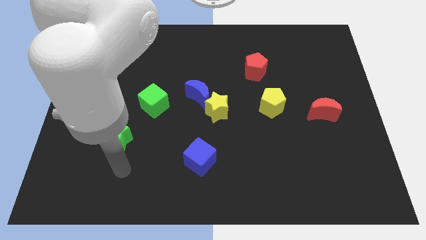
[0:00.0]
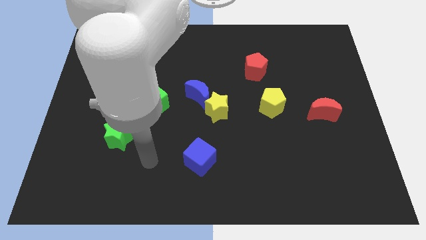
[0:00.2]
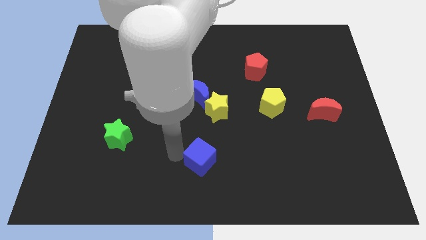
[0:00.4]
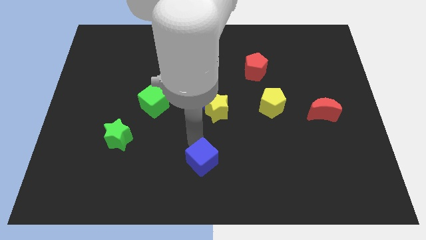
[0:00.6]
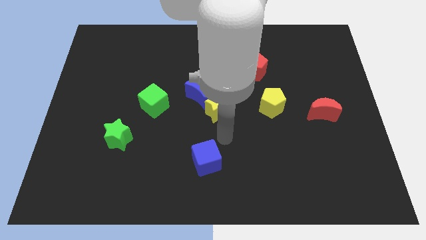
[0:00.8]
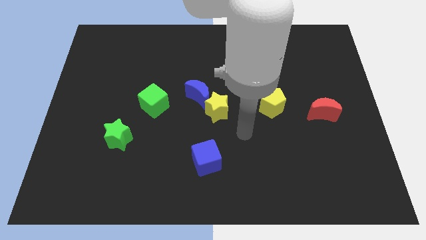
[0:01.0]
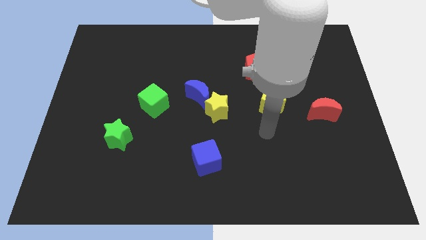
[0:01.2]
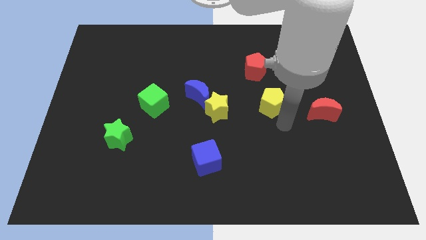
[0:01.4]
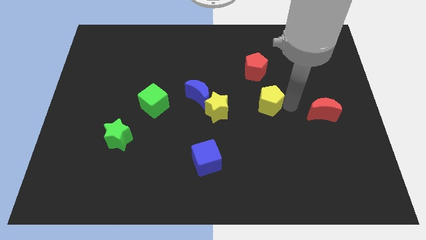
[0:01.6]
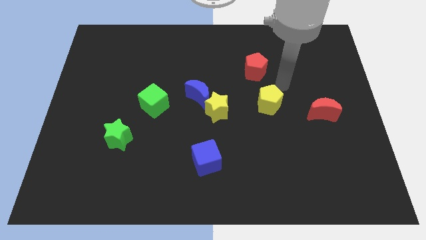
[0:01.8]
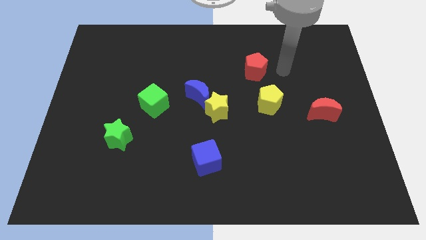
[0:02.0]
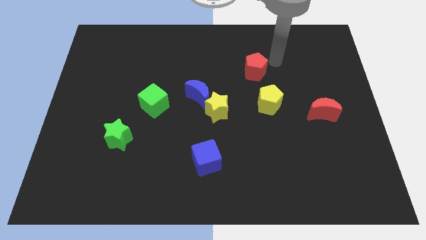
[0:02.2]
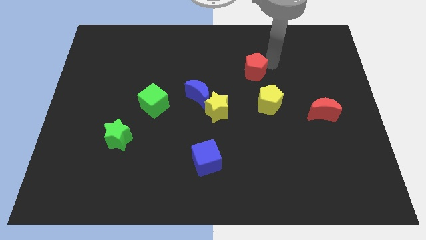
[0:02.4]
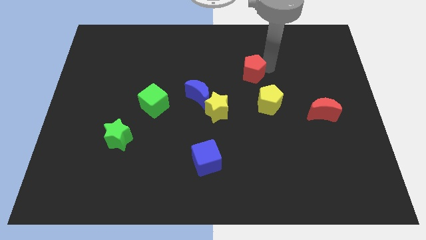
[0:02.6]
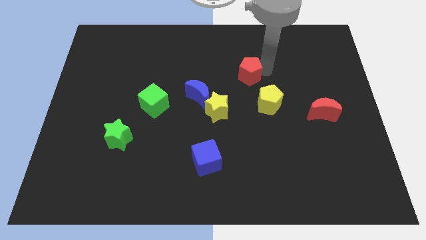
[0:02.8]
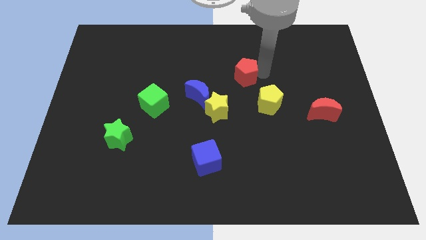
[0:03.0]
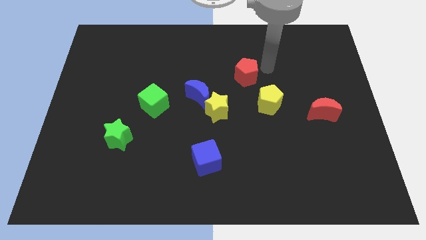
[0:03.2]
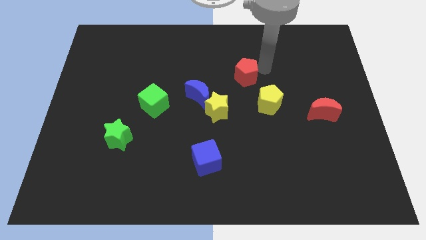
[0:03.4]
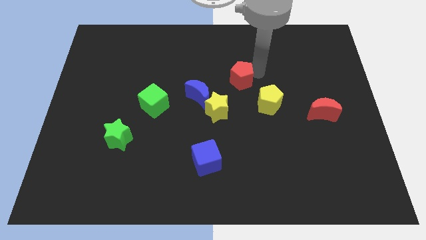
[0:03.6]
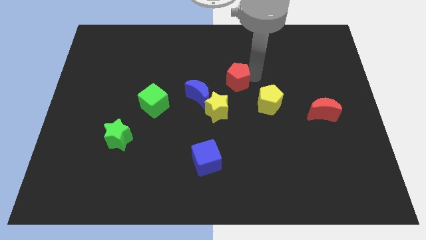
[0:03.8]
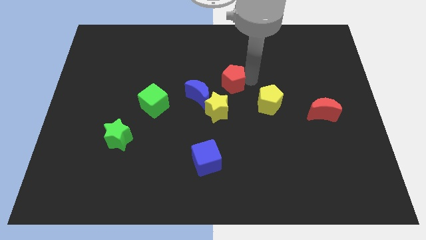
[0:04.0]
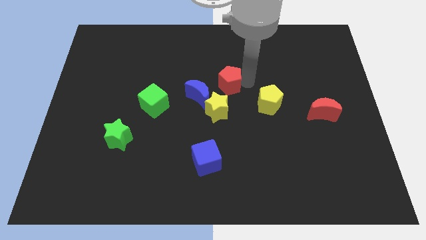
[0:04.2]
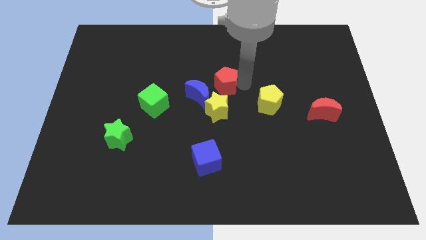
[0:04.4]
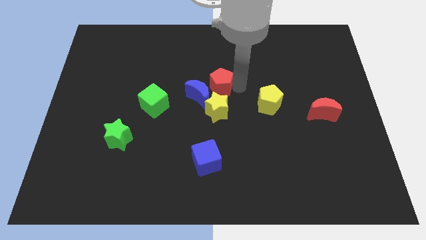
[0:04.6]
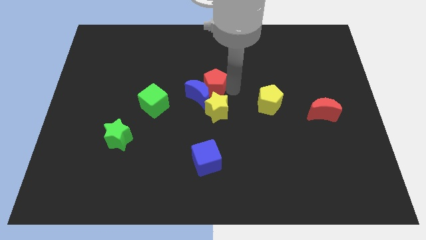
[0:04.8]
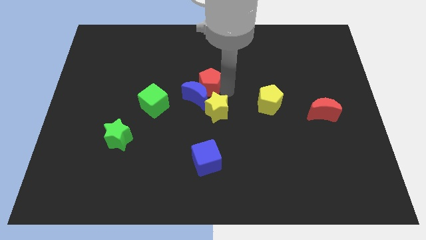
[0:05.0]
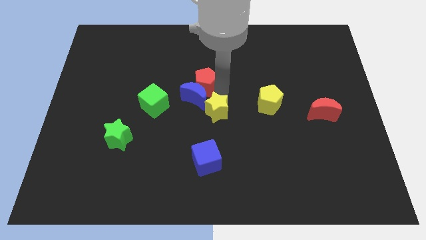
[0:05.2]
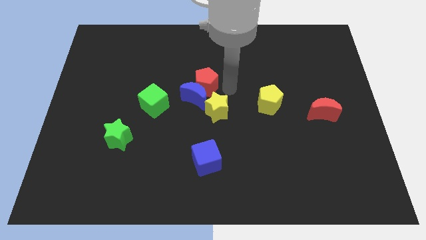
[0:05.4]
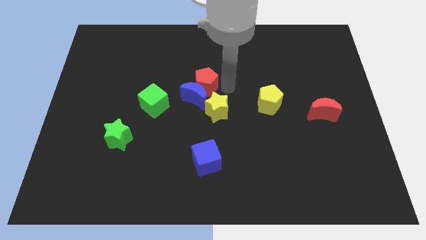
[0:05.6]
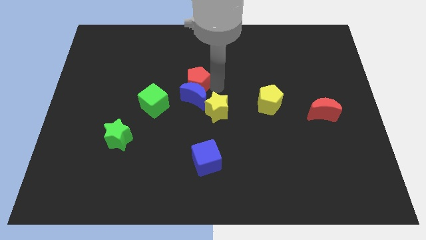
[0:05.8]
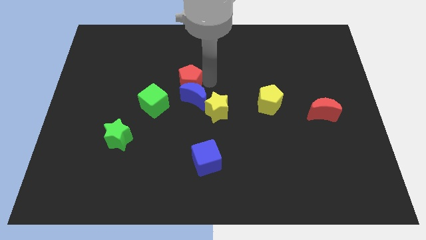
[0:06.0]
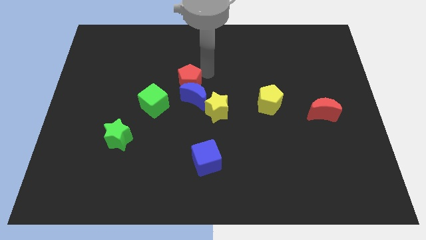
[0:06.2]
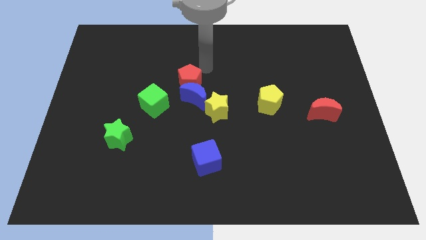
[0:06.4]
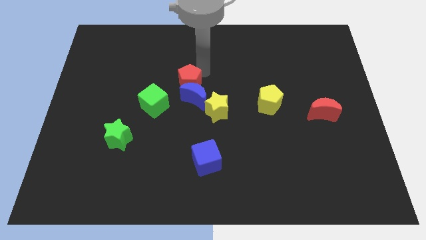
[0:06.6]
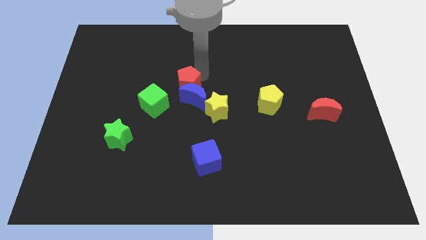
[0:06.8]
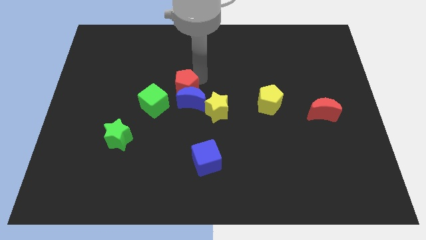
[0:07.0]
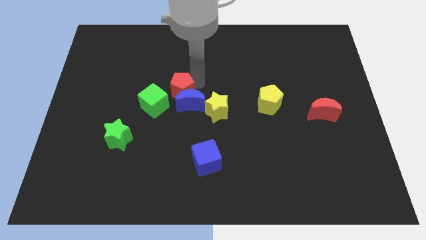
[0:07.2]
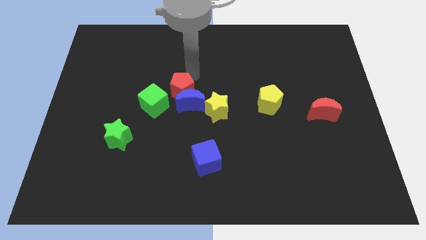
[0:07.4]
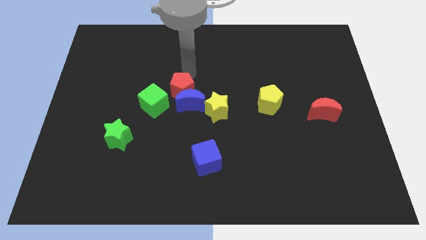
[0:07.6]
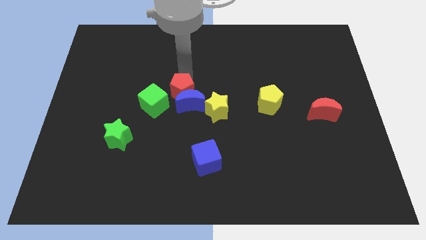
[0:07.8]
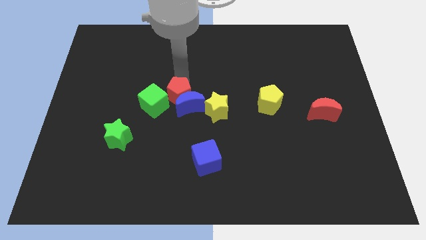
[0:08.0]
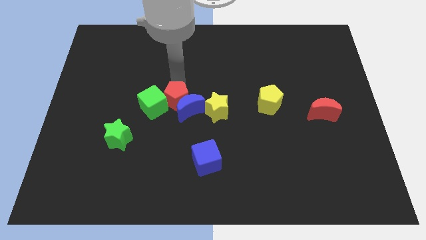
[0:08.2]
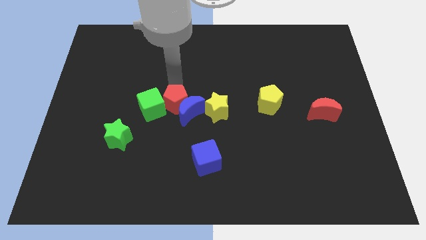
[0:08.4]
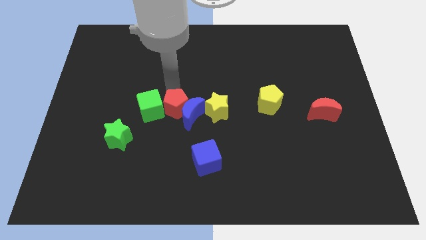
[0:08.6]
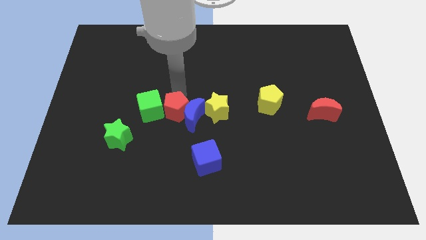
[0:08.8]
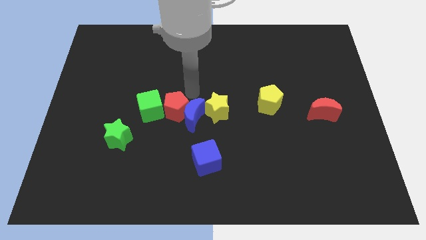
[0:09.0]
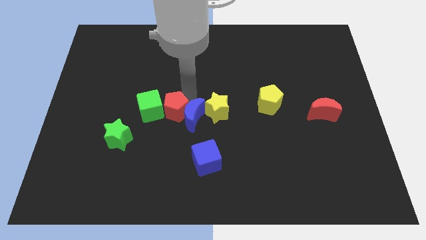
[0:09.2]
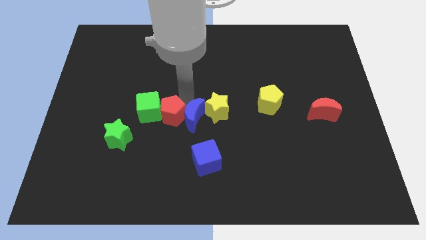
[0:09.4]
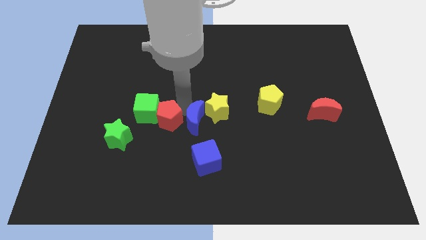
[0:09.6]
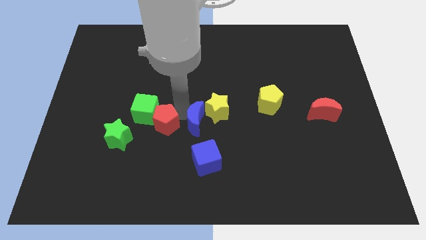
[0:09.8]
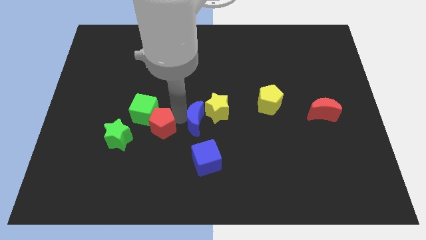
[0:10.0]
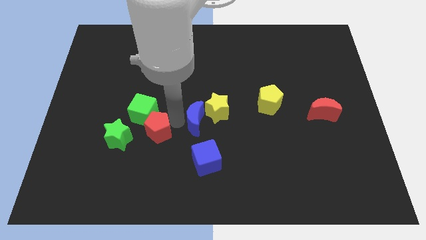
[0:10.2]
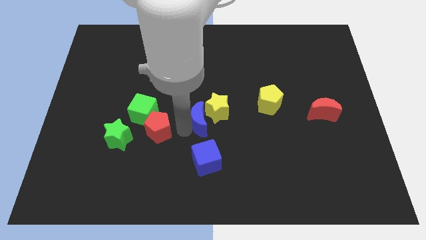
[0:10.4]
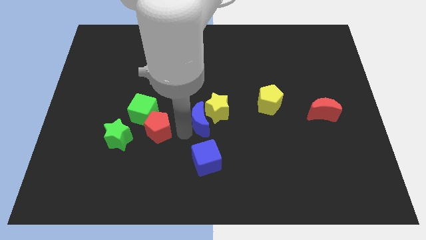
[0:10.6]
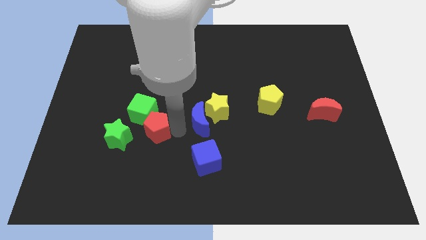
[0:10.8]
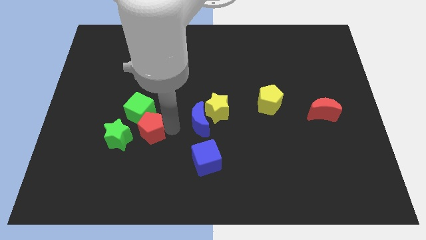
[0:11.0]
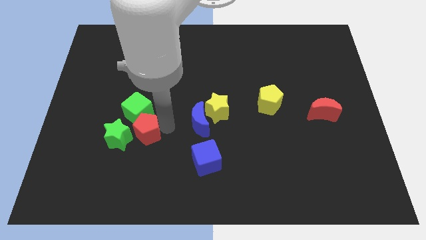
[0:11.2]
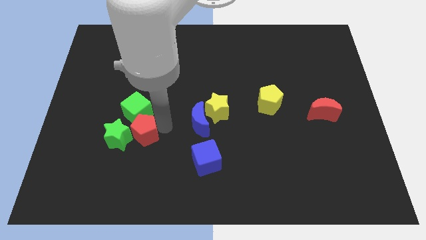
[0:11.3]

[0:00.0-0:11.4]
push the red pentagon close to the green star

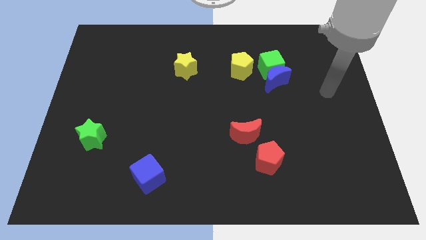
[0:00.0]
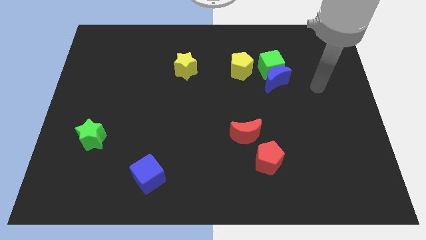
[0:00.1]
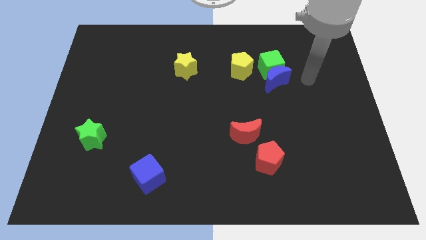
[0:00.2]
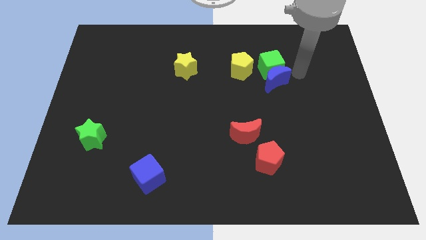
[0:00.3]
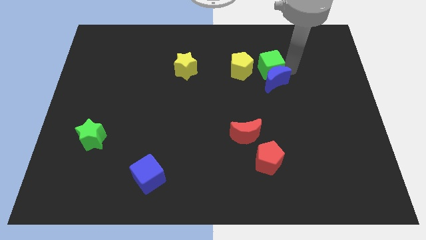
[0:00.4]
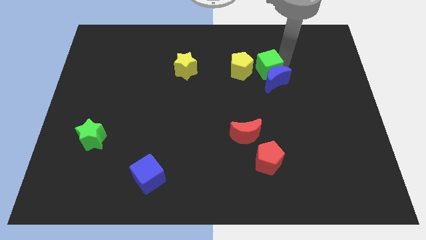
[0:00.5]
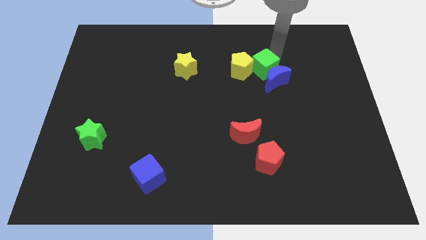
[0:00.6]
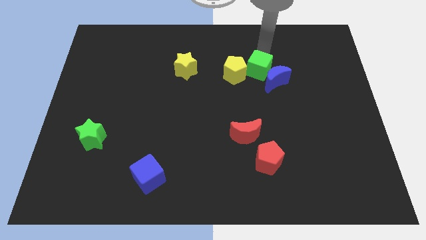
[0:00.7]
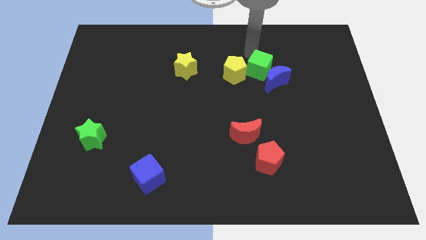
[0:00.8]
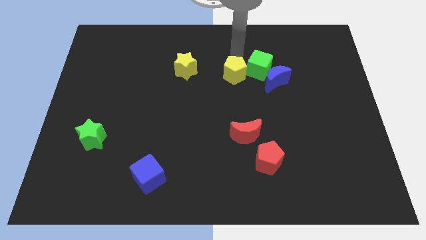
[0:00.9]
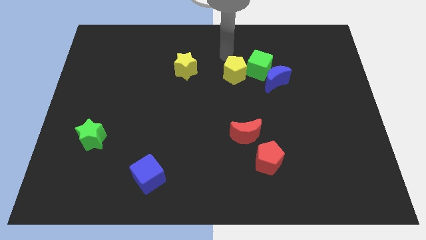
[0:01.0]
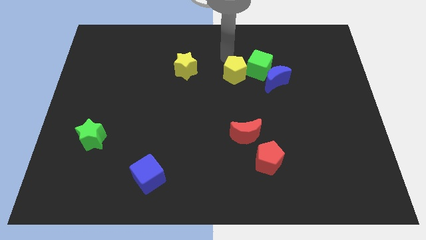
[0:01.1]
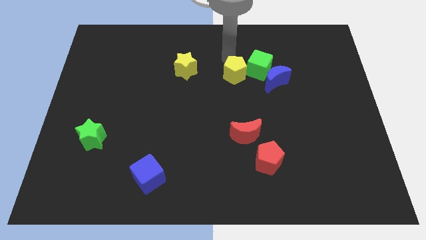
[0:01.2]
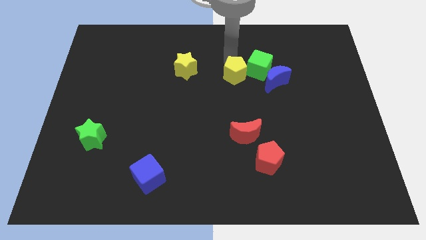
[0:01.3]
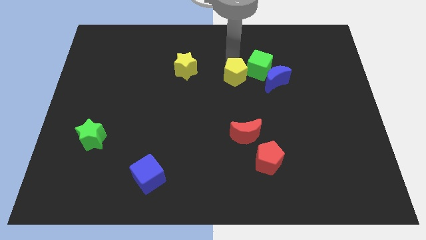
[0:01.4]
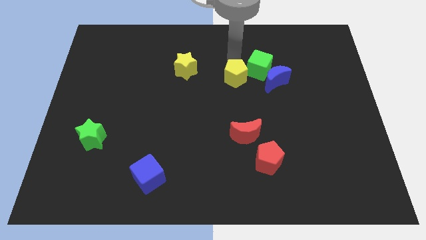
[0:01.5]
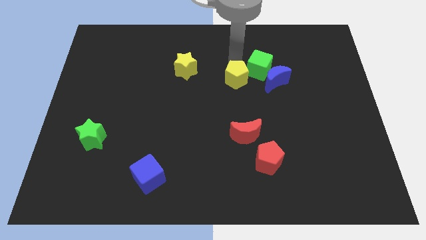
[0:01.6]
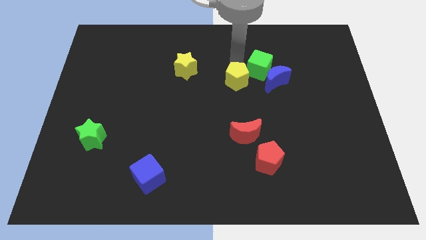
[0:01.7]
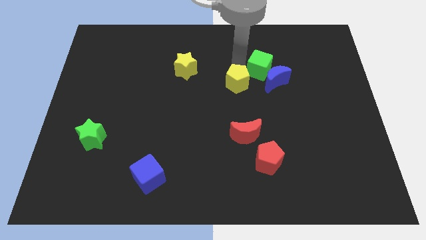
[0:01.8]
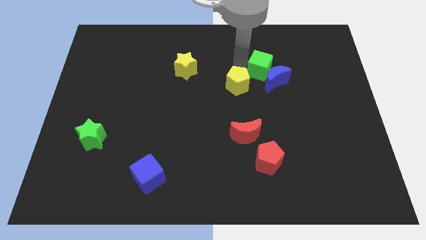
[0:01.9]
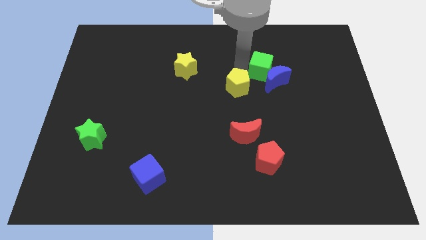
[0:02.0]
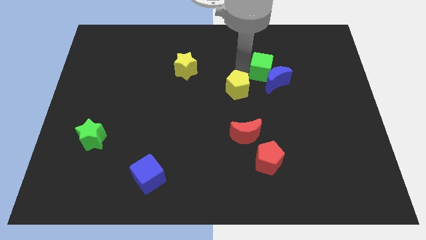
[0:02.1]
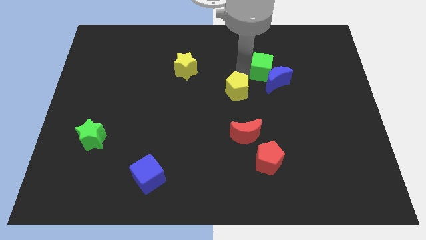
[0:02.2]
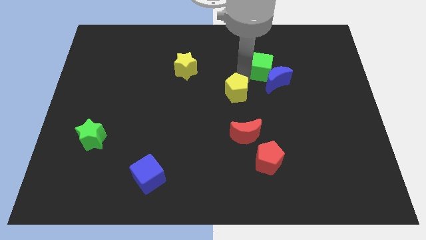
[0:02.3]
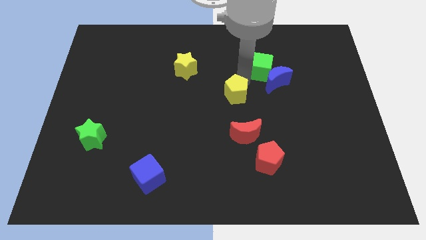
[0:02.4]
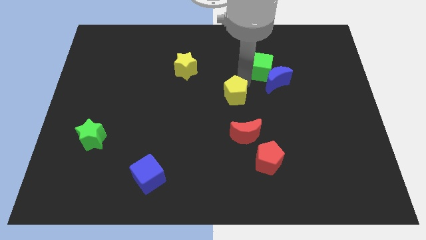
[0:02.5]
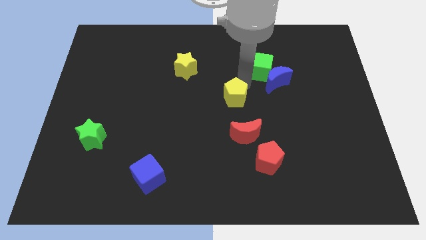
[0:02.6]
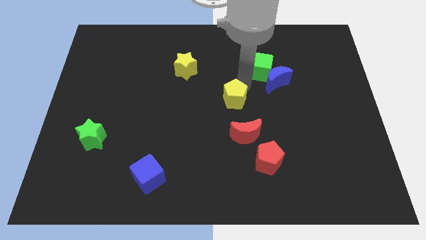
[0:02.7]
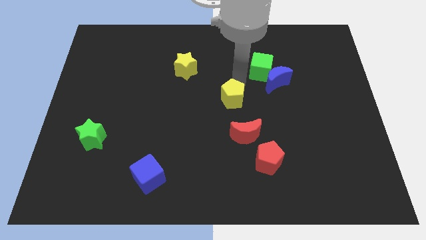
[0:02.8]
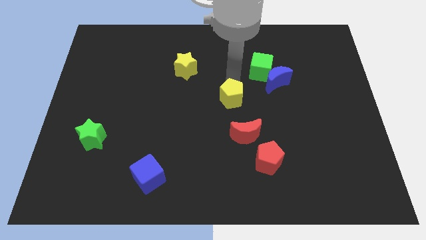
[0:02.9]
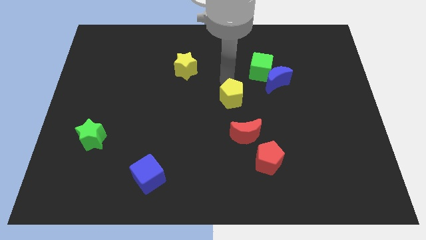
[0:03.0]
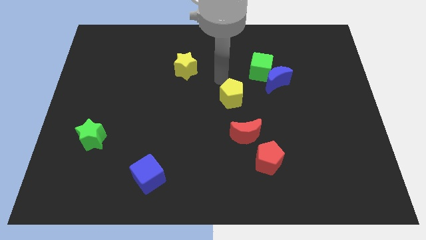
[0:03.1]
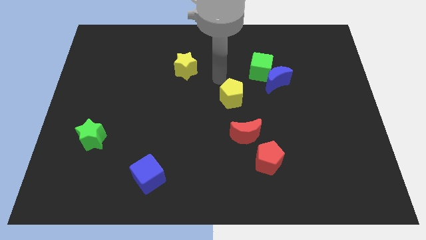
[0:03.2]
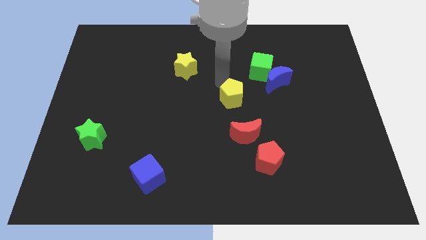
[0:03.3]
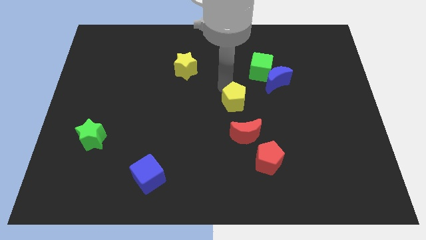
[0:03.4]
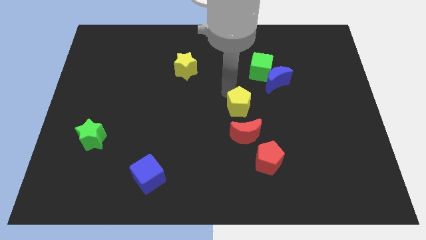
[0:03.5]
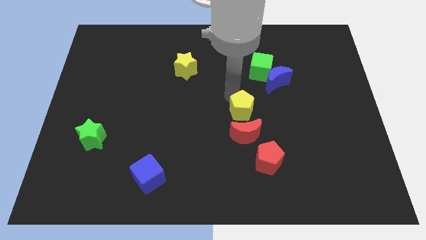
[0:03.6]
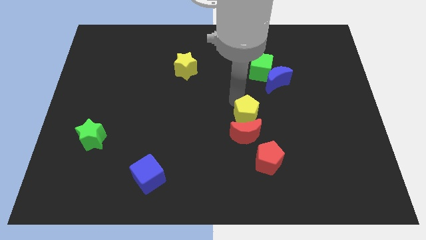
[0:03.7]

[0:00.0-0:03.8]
put the yellow pentagon to the red moon
